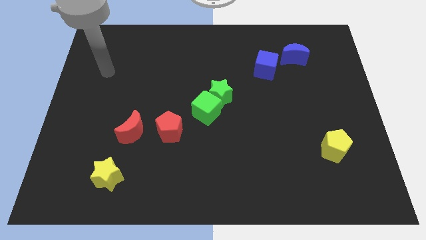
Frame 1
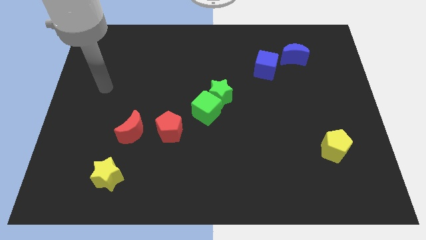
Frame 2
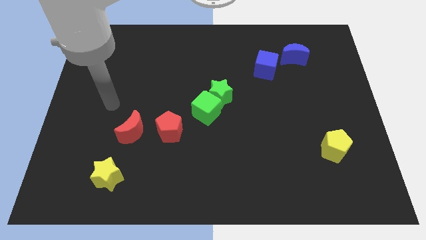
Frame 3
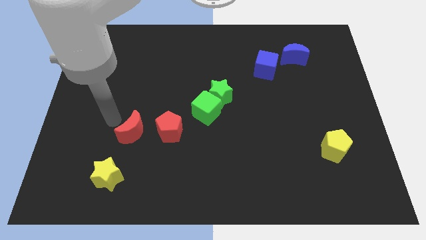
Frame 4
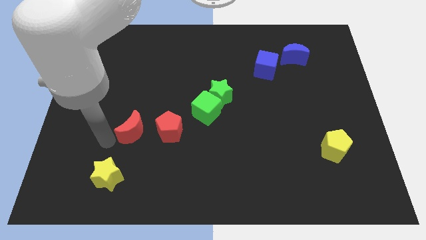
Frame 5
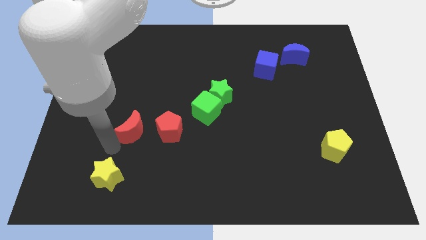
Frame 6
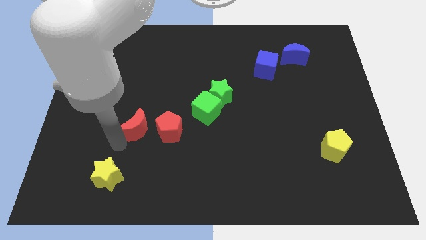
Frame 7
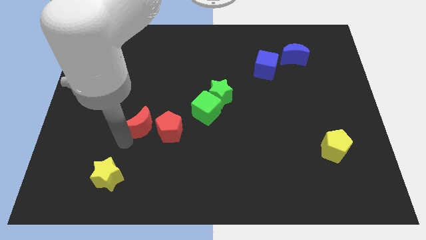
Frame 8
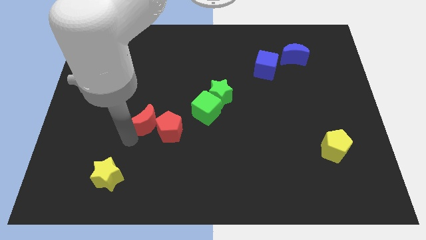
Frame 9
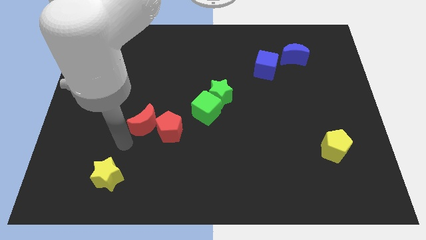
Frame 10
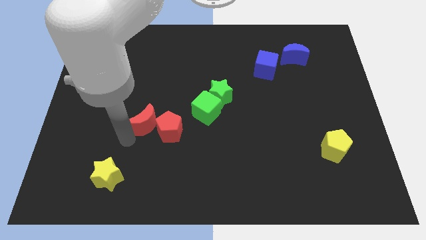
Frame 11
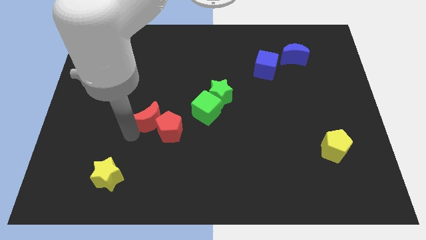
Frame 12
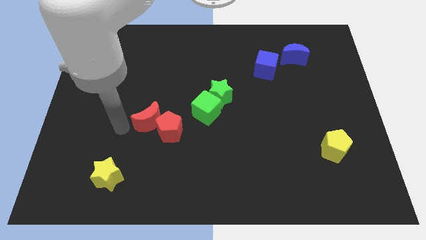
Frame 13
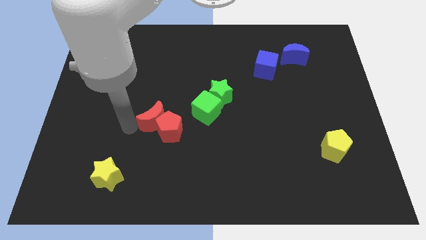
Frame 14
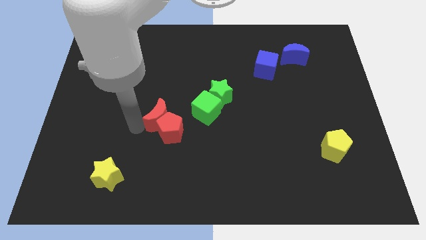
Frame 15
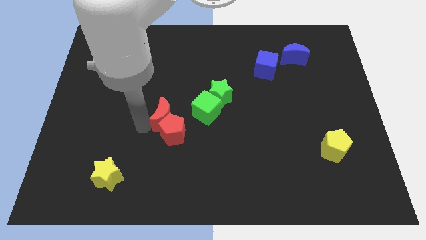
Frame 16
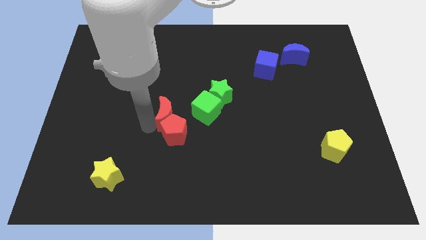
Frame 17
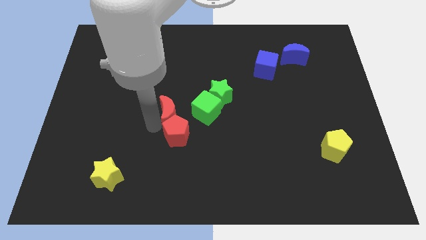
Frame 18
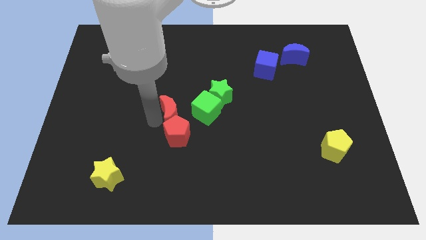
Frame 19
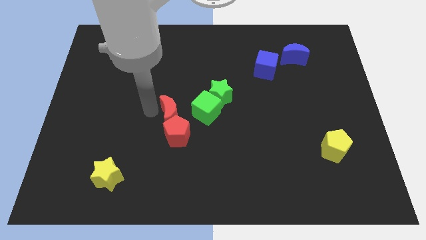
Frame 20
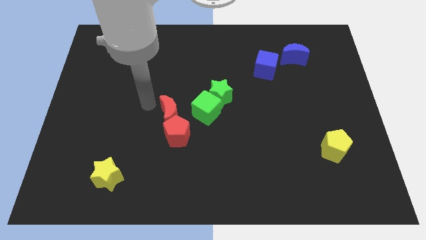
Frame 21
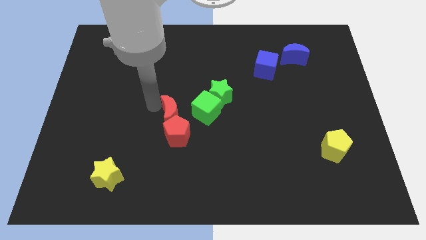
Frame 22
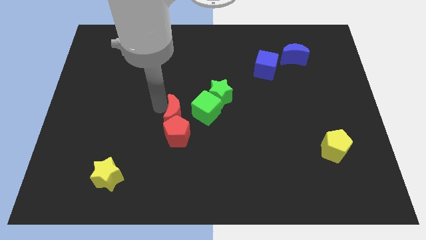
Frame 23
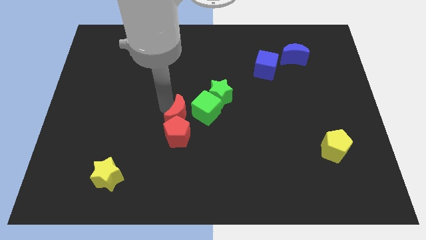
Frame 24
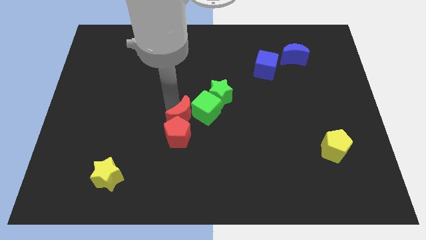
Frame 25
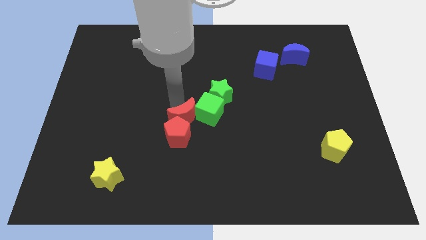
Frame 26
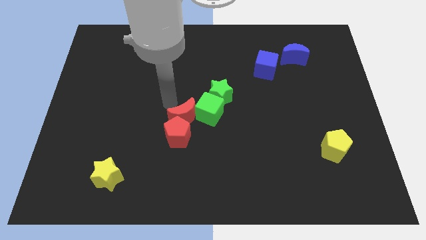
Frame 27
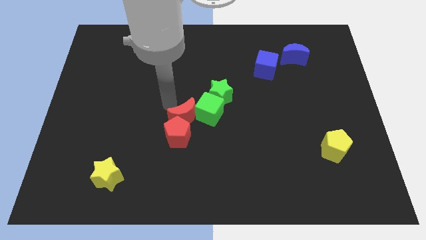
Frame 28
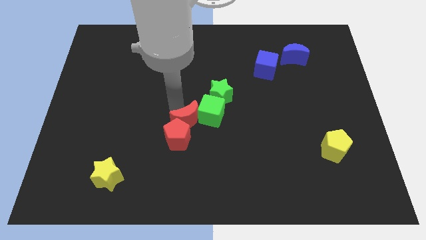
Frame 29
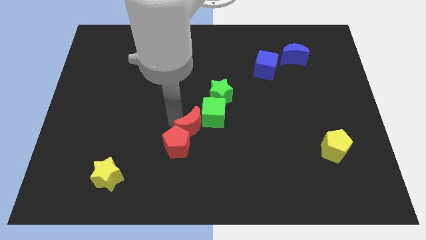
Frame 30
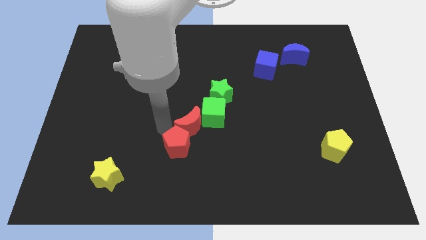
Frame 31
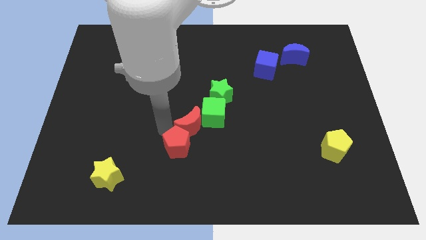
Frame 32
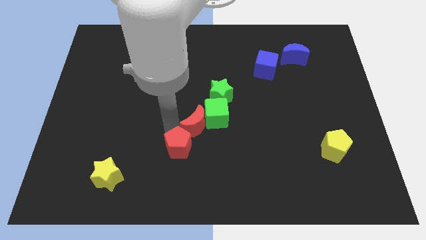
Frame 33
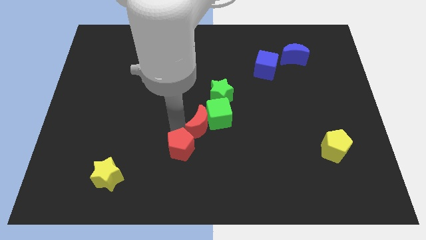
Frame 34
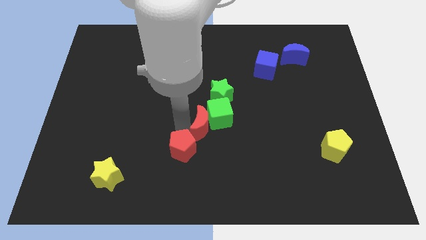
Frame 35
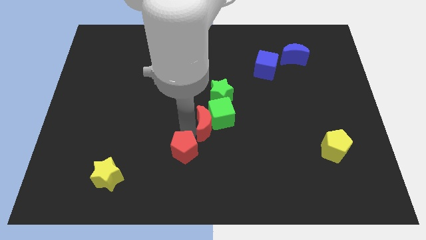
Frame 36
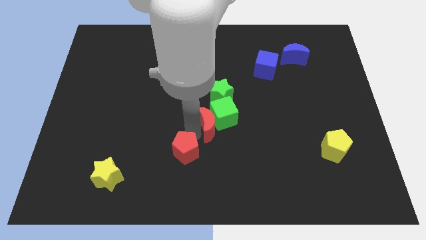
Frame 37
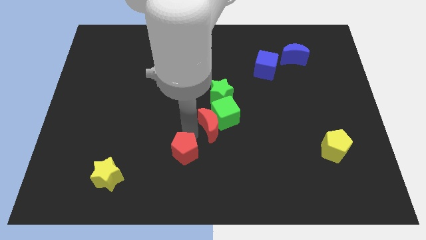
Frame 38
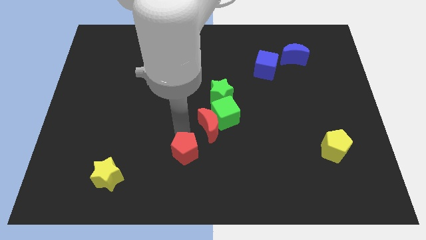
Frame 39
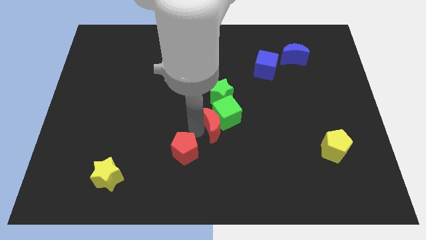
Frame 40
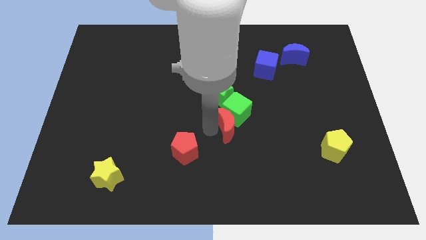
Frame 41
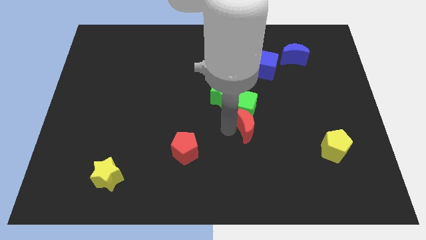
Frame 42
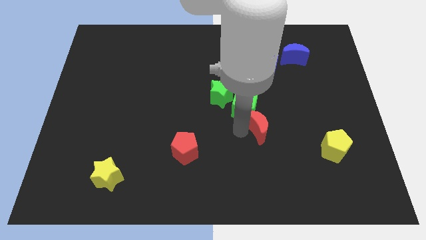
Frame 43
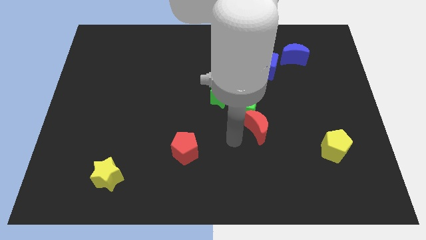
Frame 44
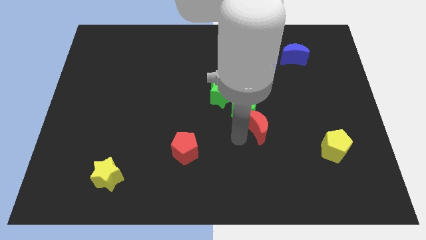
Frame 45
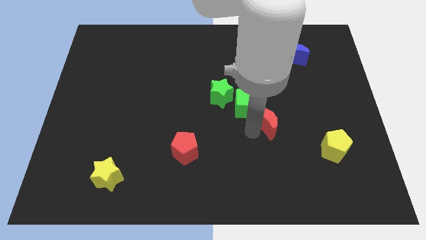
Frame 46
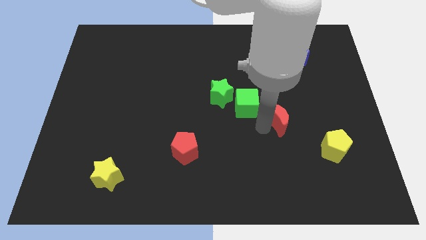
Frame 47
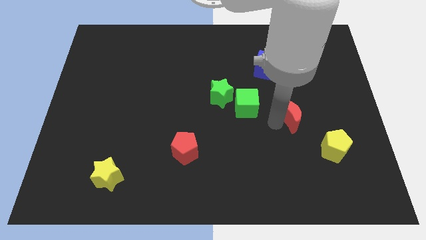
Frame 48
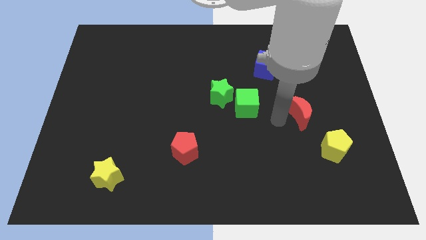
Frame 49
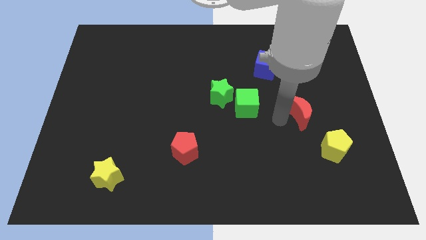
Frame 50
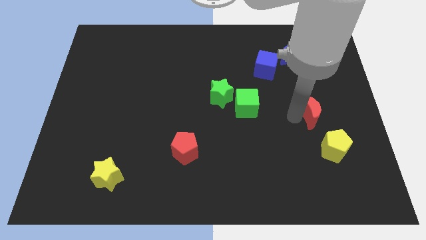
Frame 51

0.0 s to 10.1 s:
put the red moon to the top of the yellow pentagon

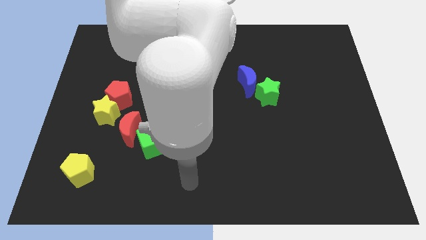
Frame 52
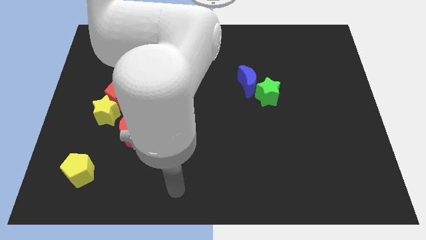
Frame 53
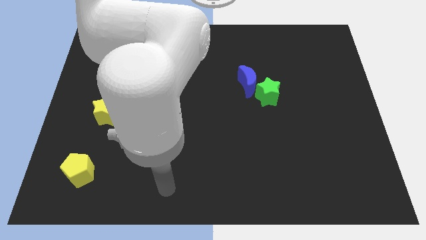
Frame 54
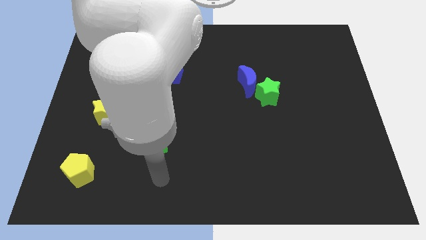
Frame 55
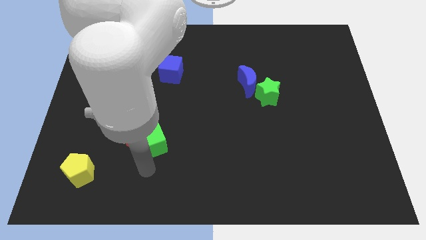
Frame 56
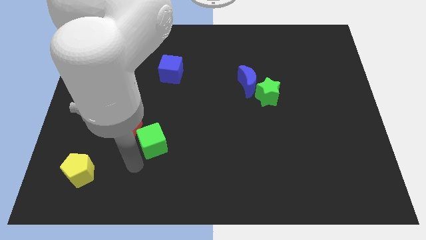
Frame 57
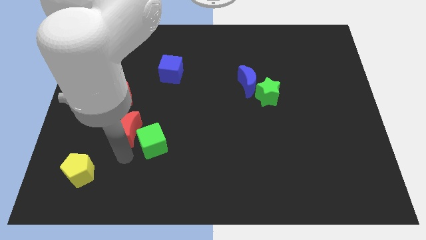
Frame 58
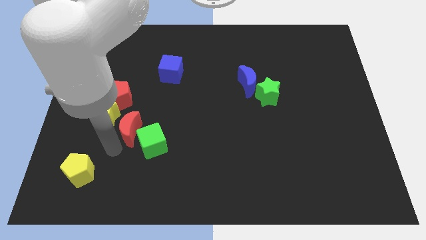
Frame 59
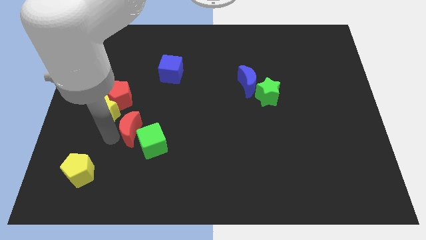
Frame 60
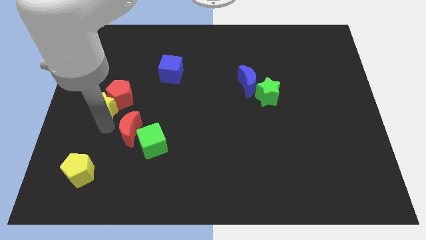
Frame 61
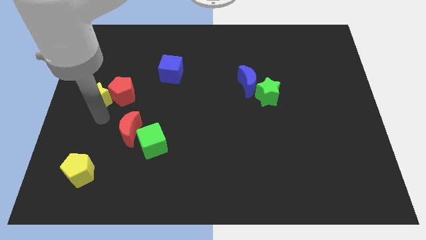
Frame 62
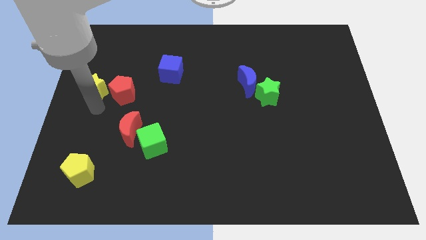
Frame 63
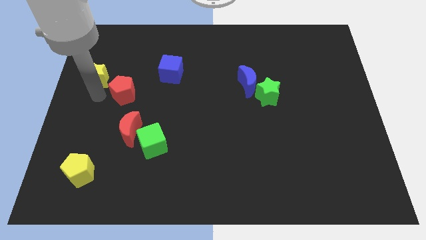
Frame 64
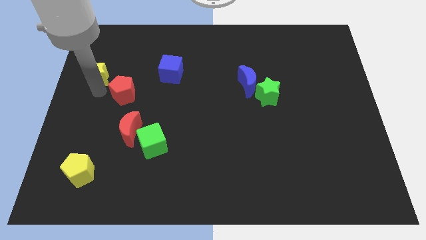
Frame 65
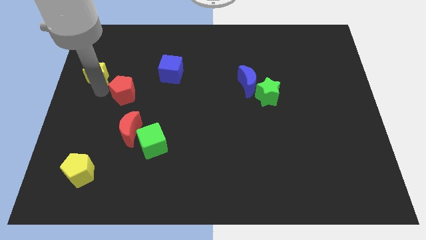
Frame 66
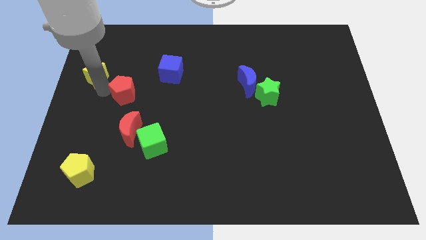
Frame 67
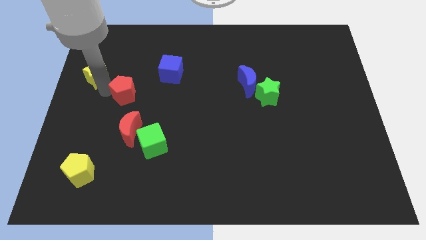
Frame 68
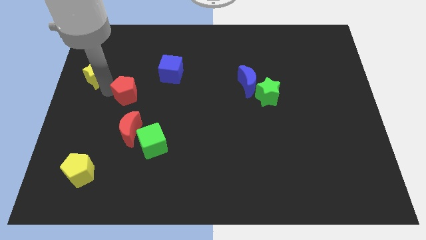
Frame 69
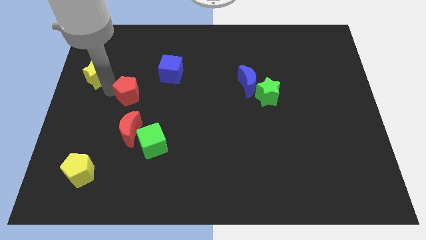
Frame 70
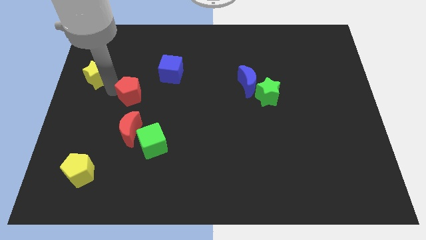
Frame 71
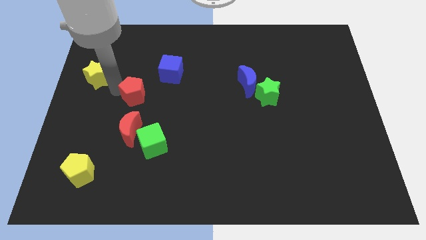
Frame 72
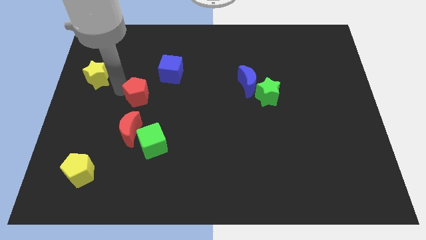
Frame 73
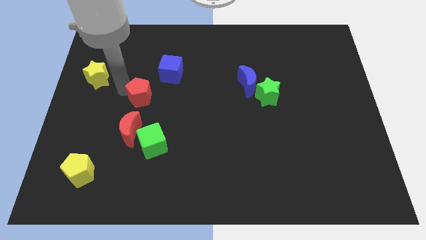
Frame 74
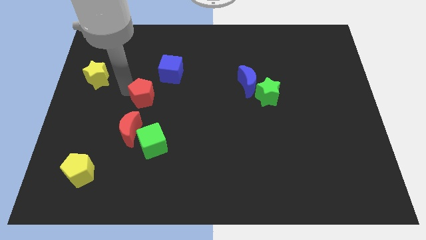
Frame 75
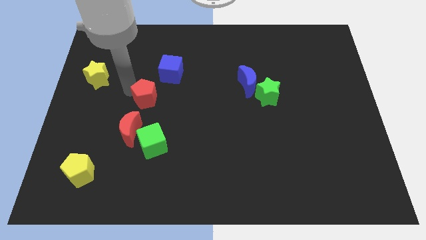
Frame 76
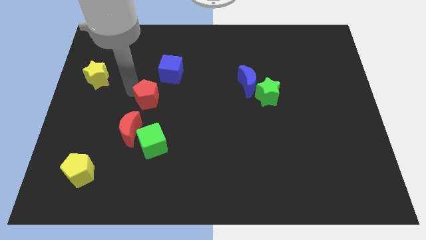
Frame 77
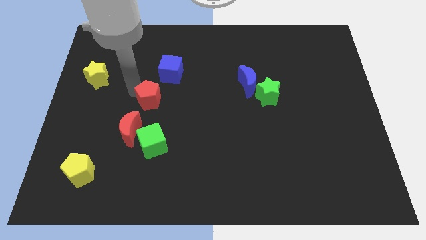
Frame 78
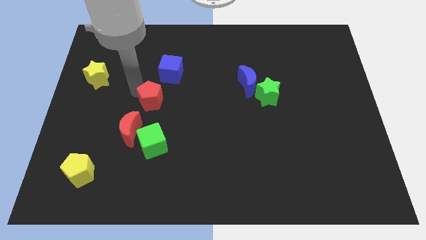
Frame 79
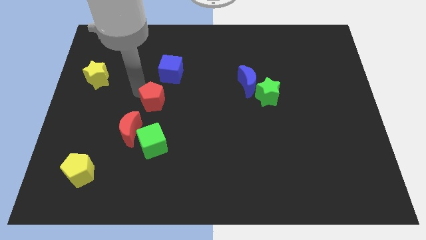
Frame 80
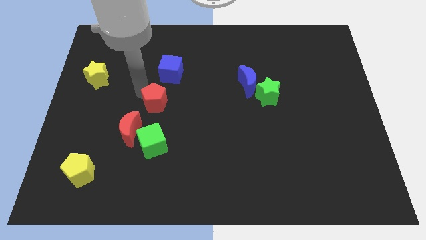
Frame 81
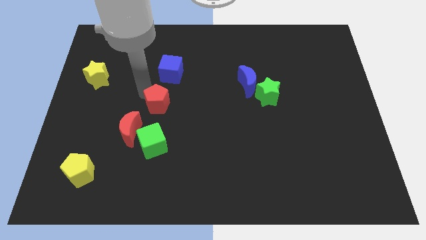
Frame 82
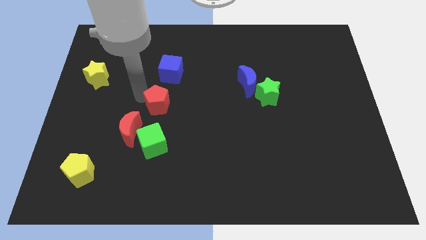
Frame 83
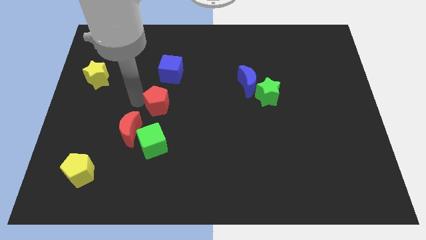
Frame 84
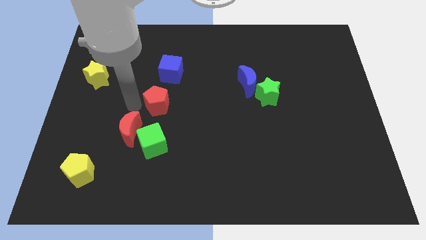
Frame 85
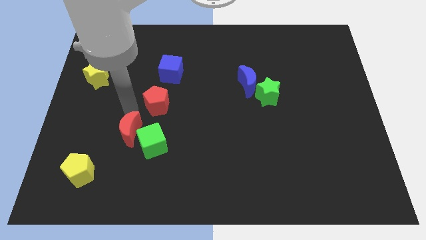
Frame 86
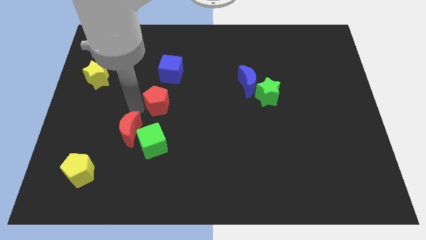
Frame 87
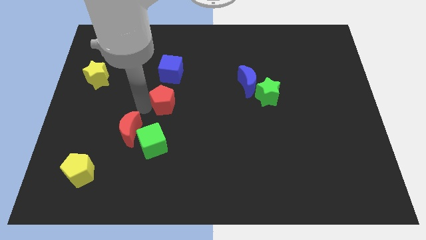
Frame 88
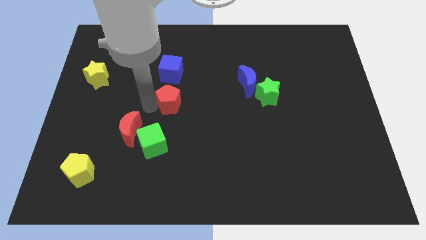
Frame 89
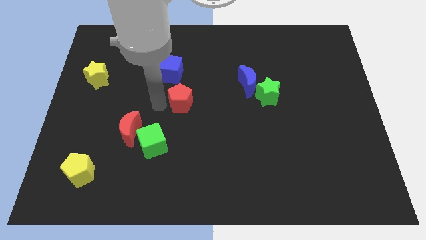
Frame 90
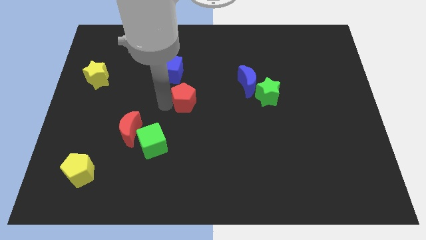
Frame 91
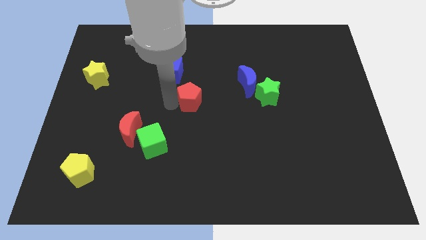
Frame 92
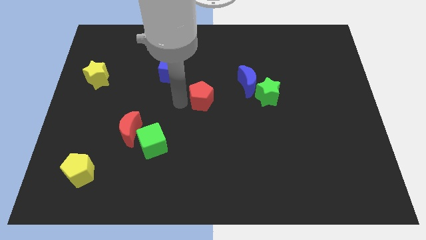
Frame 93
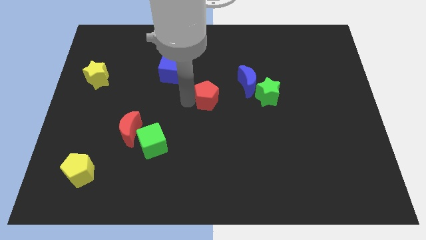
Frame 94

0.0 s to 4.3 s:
push the red pentagon to the bottom left side of the blue moon
